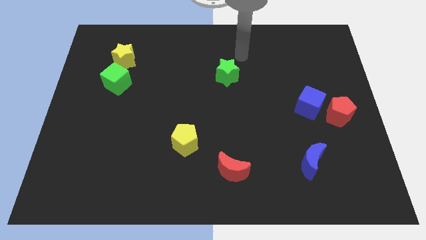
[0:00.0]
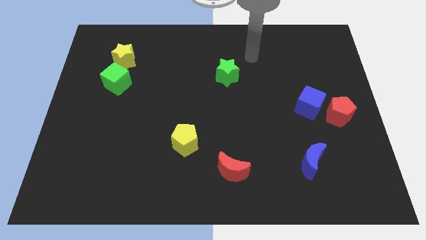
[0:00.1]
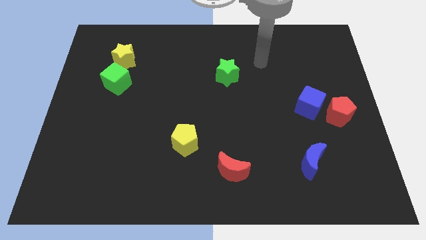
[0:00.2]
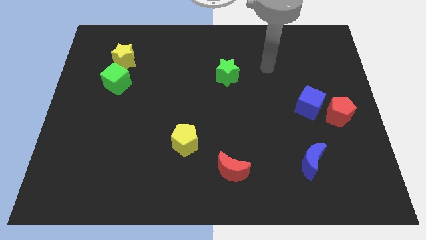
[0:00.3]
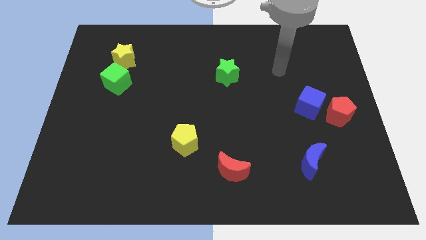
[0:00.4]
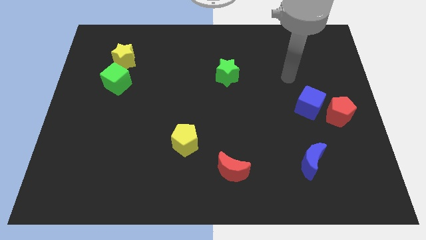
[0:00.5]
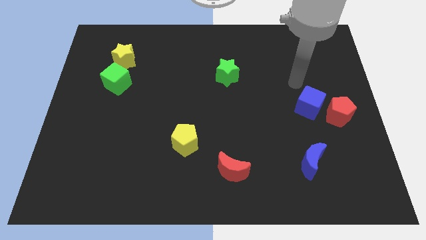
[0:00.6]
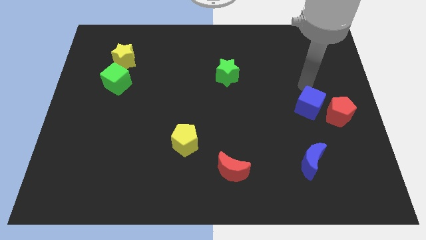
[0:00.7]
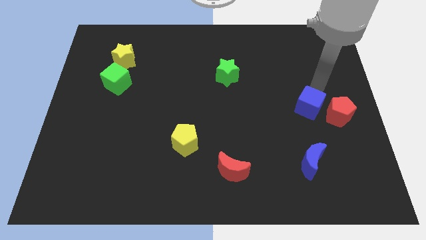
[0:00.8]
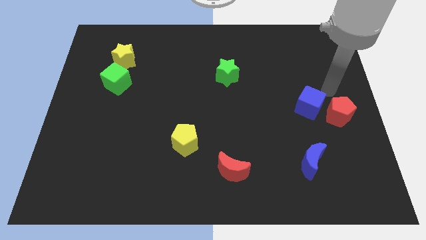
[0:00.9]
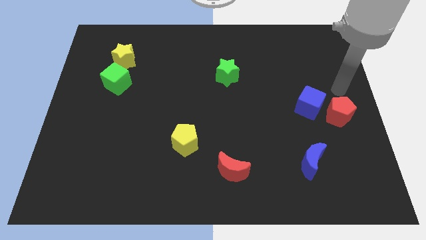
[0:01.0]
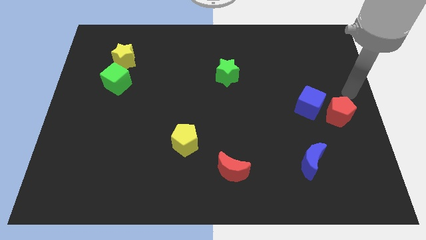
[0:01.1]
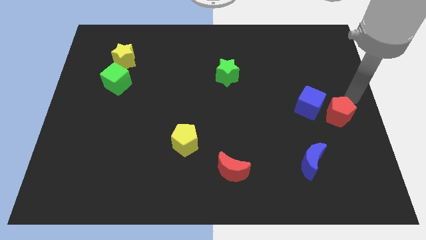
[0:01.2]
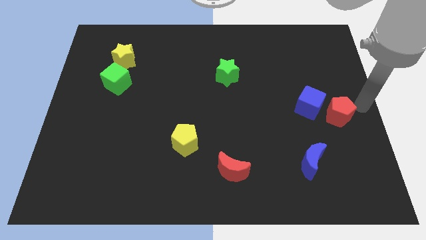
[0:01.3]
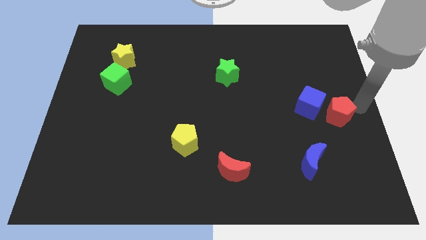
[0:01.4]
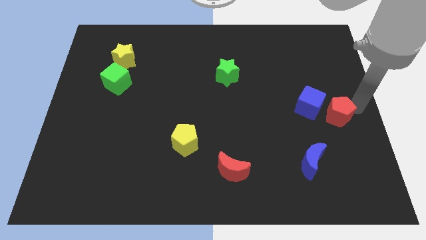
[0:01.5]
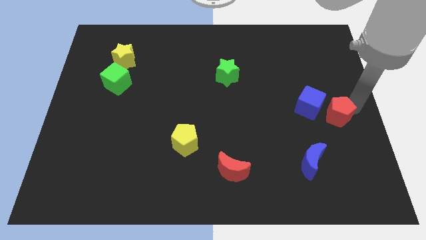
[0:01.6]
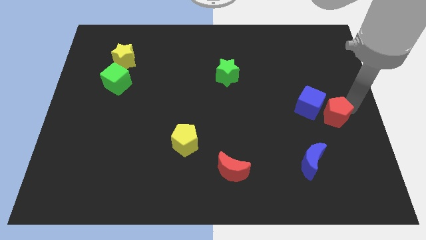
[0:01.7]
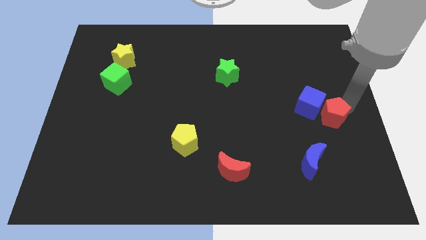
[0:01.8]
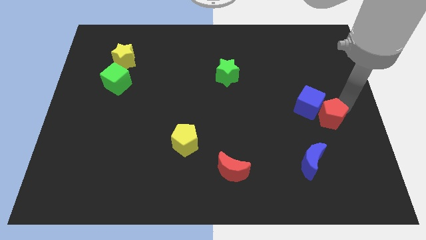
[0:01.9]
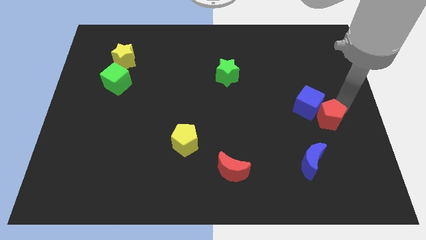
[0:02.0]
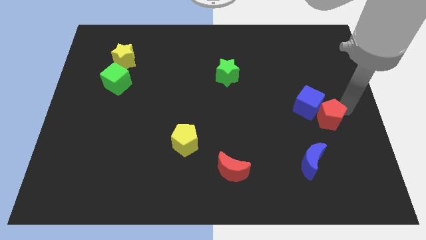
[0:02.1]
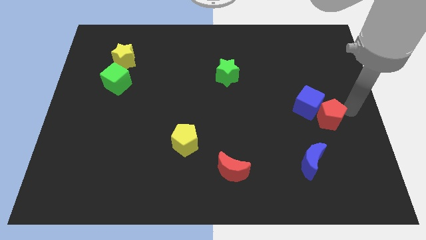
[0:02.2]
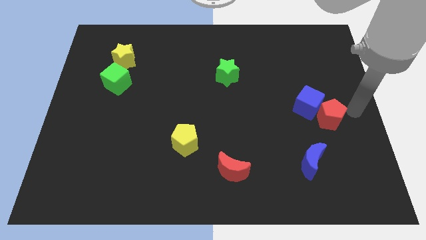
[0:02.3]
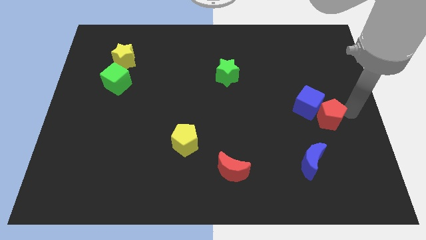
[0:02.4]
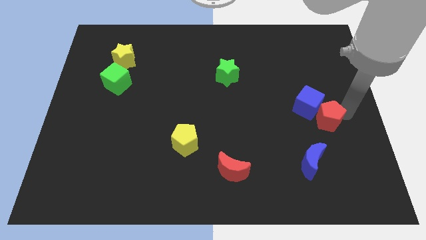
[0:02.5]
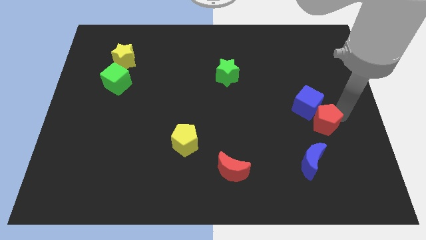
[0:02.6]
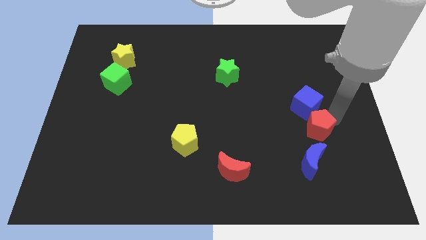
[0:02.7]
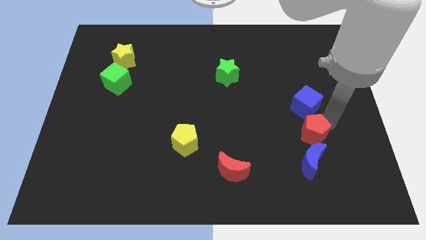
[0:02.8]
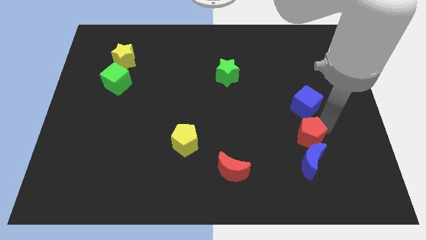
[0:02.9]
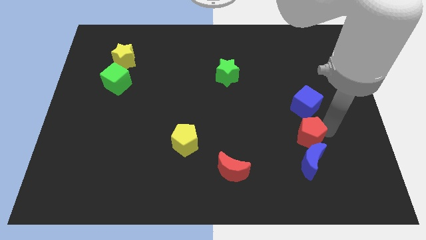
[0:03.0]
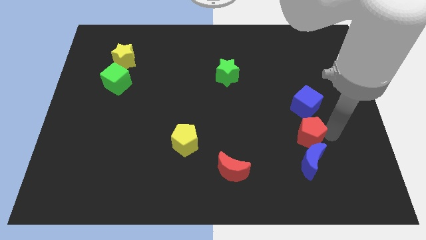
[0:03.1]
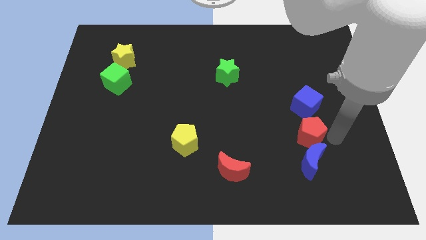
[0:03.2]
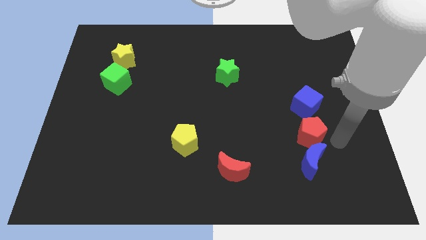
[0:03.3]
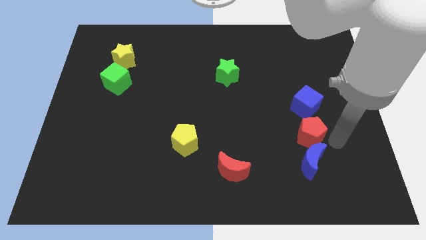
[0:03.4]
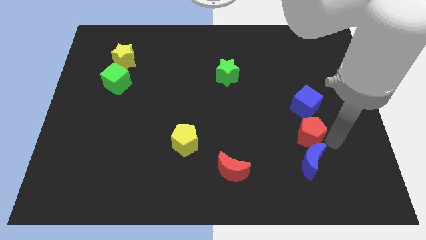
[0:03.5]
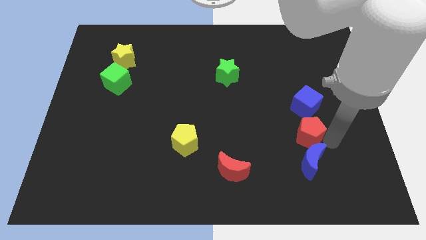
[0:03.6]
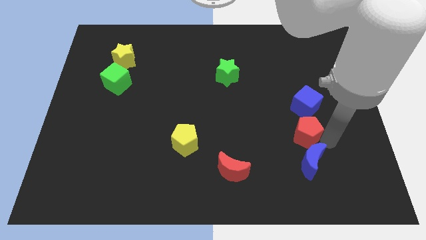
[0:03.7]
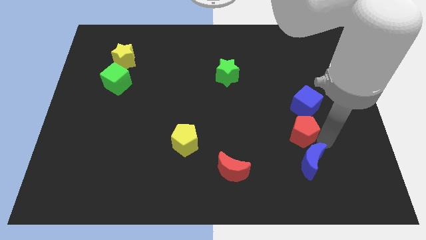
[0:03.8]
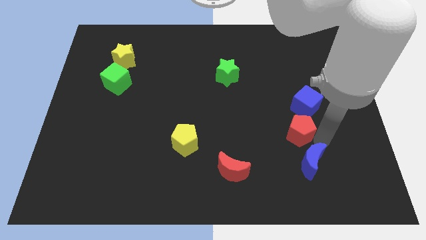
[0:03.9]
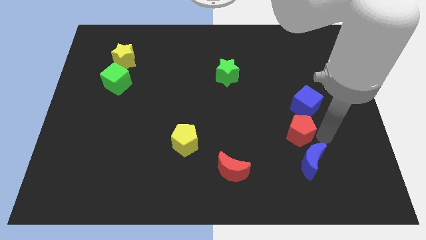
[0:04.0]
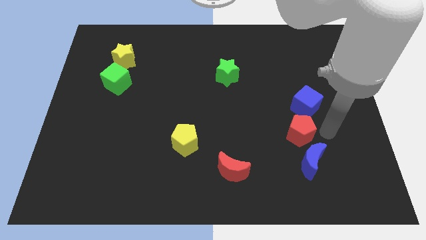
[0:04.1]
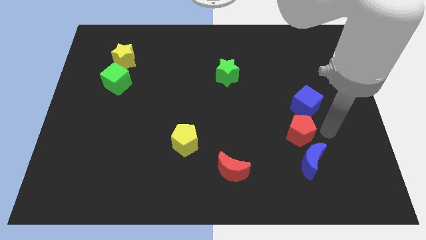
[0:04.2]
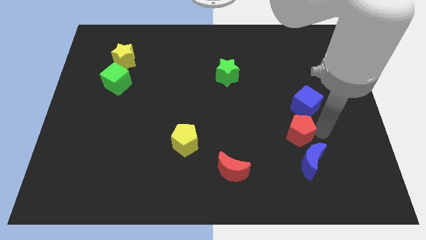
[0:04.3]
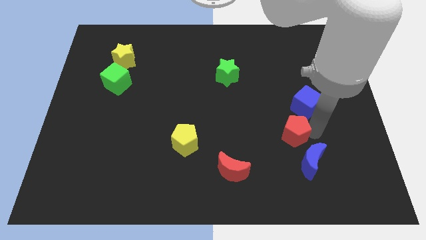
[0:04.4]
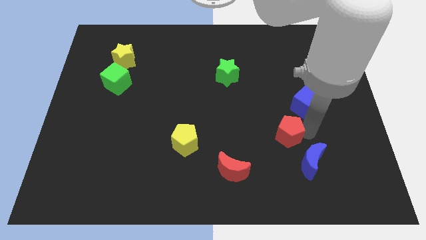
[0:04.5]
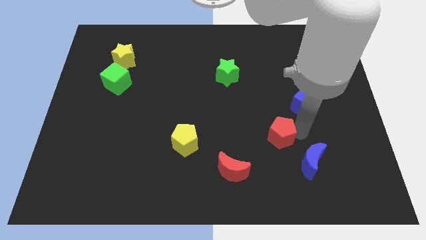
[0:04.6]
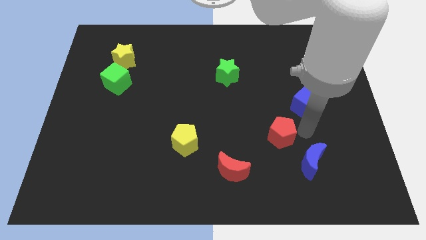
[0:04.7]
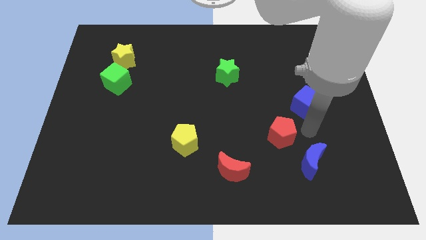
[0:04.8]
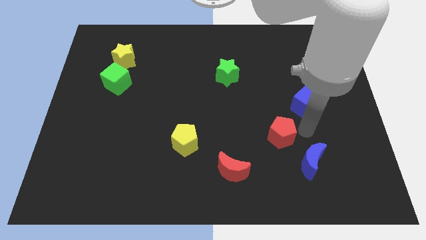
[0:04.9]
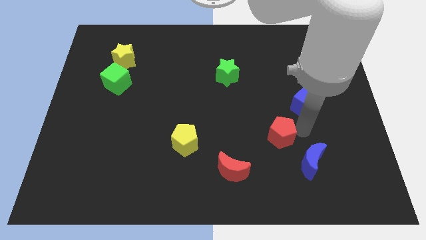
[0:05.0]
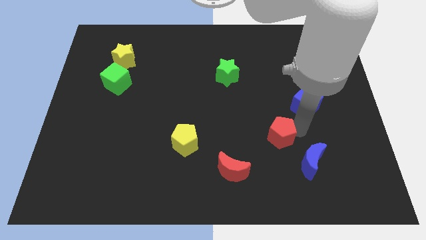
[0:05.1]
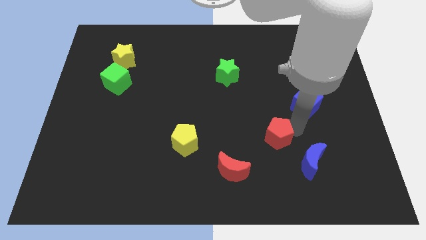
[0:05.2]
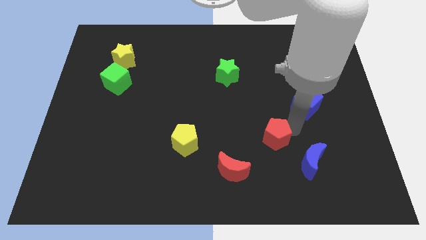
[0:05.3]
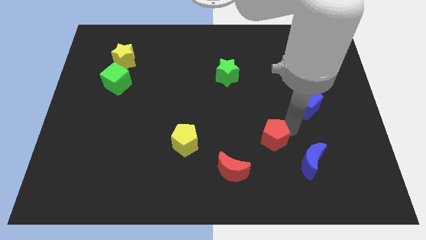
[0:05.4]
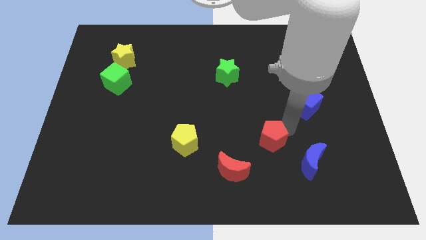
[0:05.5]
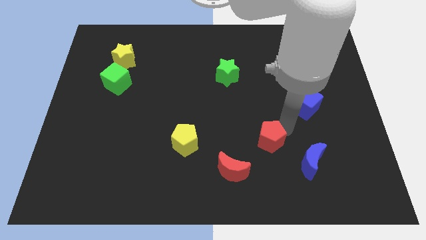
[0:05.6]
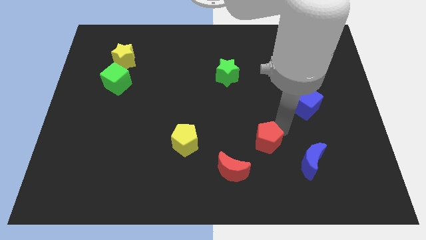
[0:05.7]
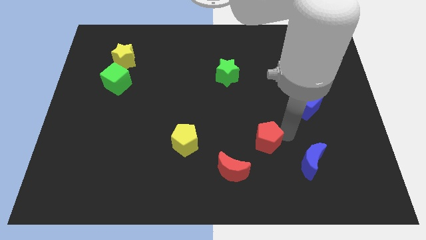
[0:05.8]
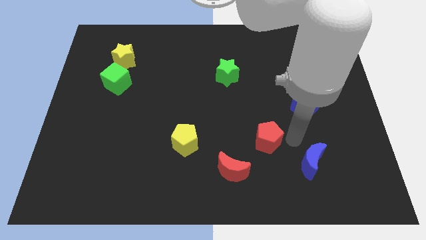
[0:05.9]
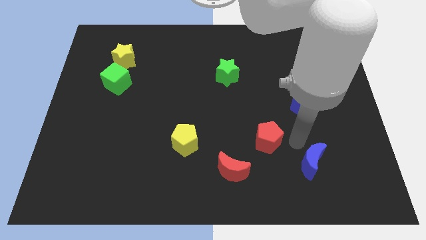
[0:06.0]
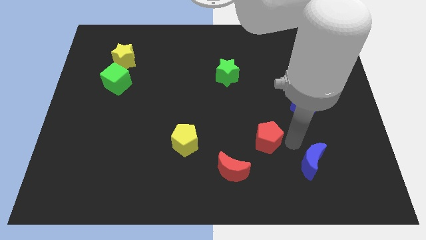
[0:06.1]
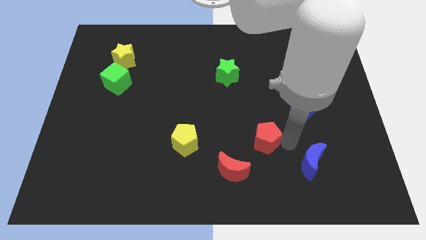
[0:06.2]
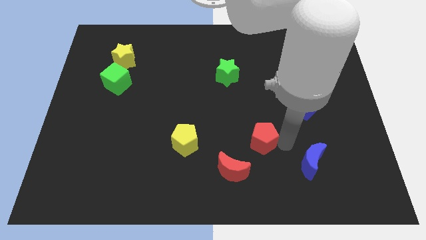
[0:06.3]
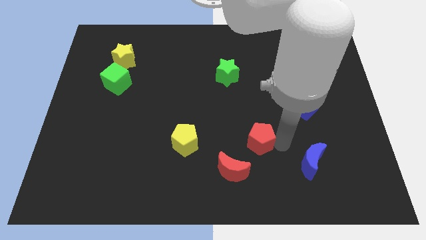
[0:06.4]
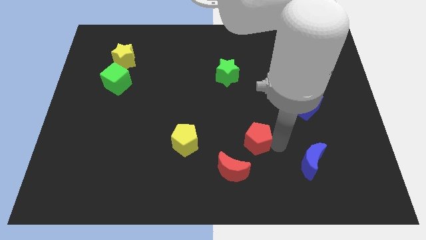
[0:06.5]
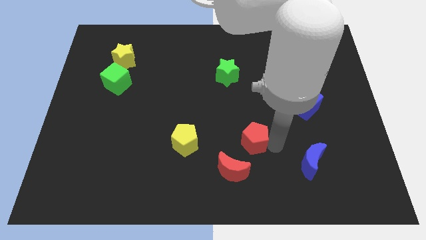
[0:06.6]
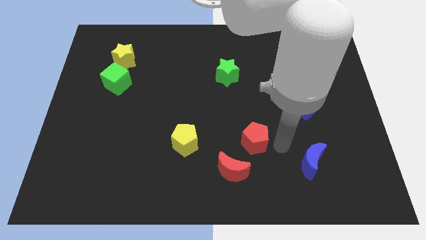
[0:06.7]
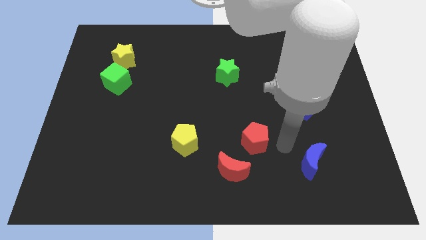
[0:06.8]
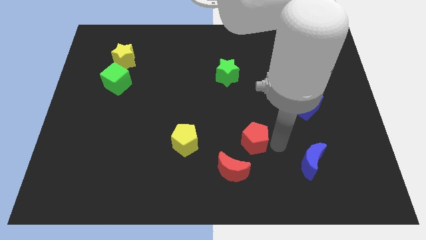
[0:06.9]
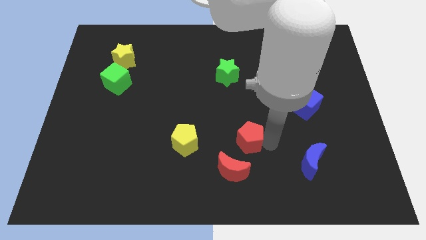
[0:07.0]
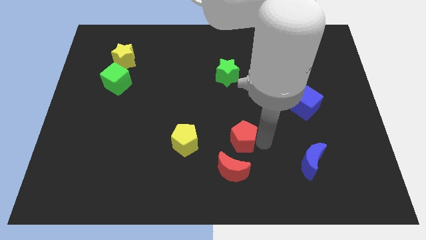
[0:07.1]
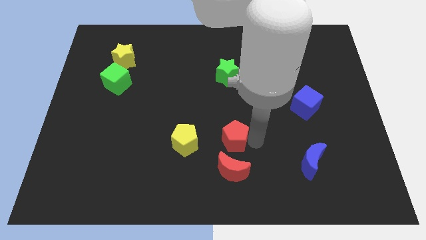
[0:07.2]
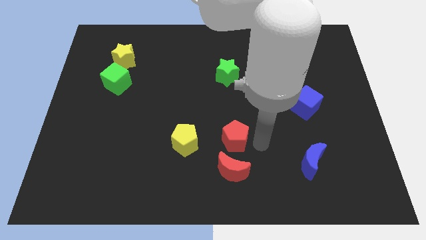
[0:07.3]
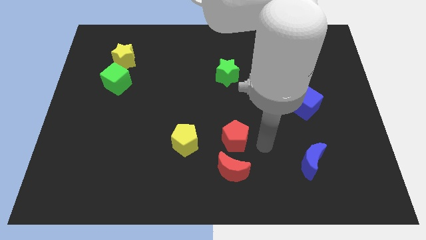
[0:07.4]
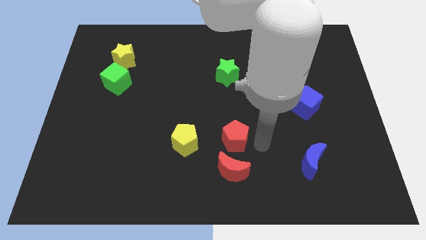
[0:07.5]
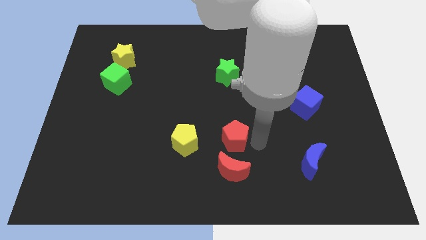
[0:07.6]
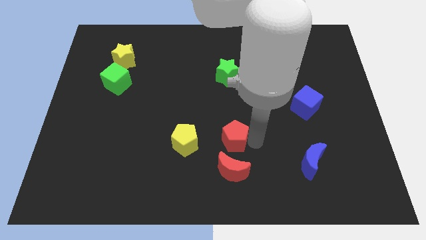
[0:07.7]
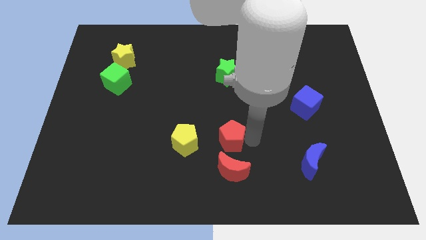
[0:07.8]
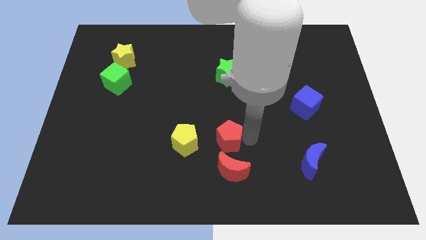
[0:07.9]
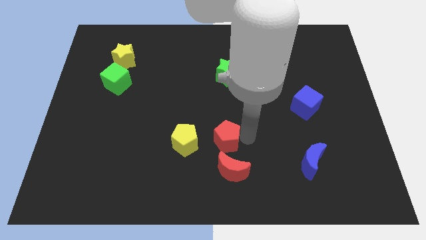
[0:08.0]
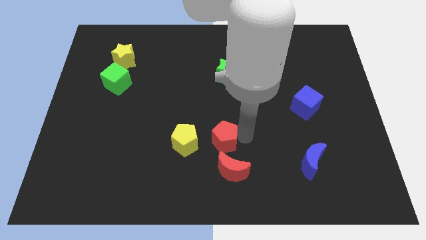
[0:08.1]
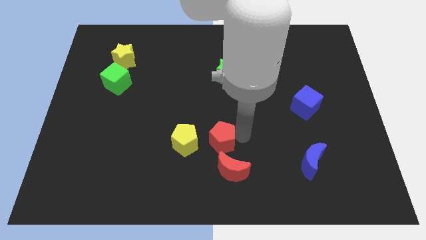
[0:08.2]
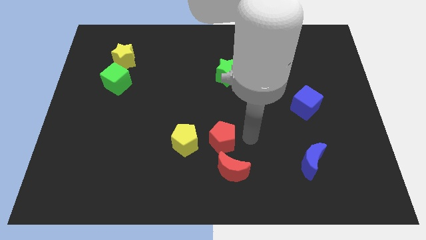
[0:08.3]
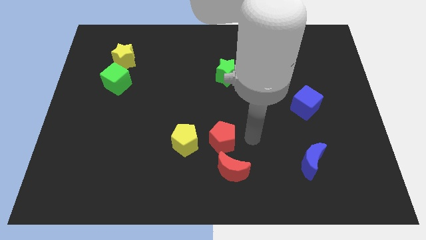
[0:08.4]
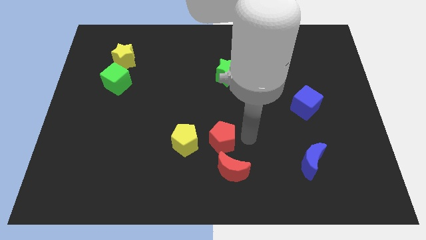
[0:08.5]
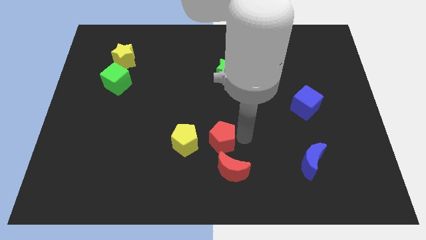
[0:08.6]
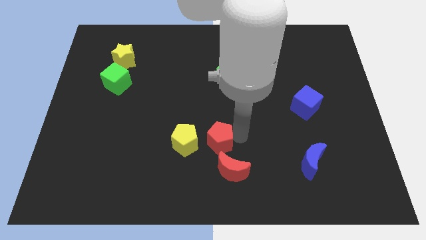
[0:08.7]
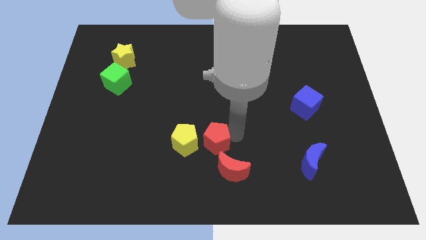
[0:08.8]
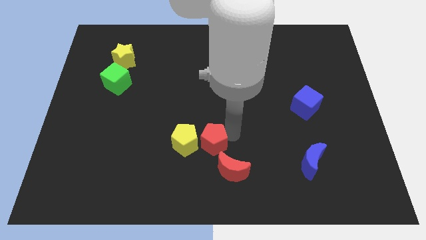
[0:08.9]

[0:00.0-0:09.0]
slide the red pentagon to the yellow pentagon
